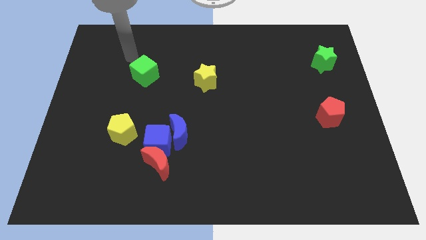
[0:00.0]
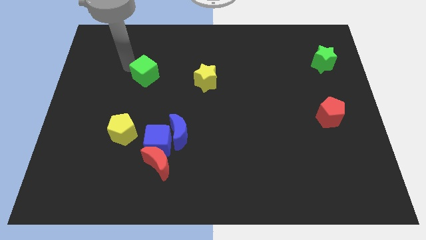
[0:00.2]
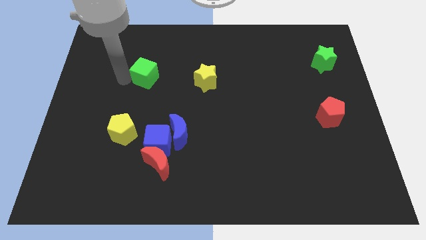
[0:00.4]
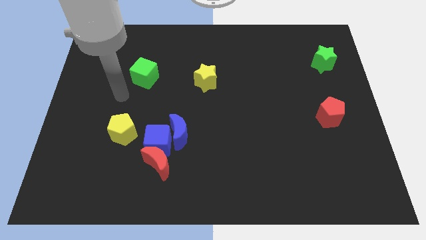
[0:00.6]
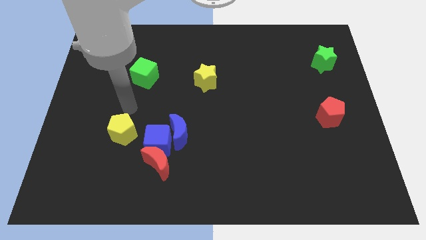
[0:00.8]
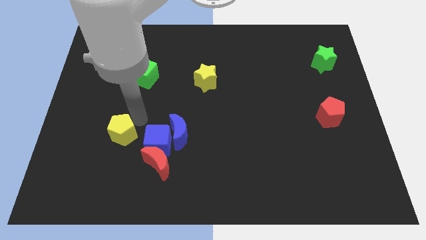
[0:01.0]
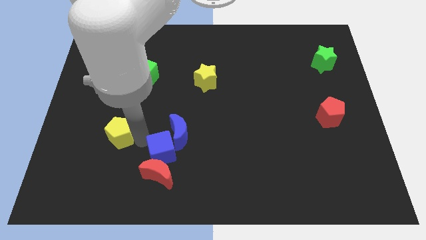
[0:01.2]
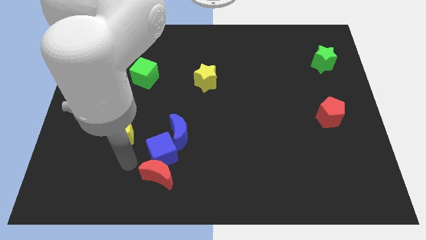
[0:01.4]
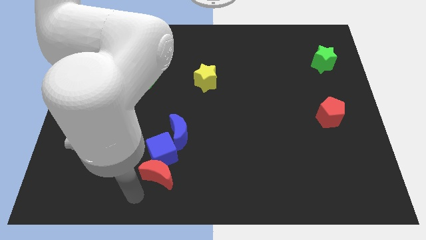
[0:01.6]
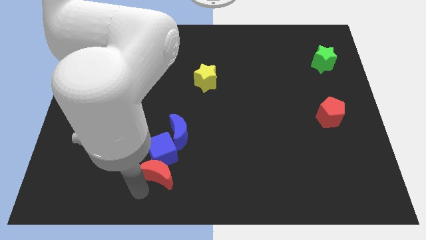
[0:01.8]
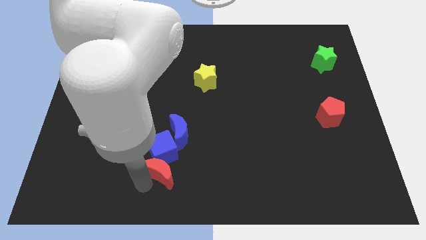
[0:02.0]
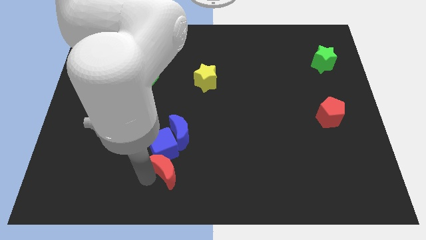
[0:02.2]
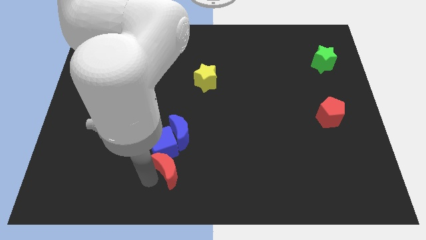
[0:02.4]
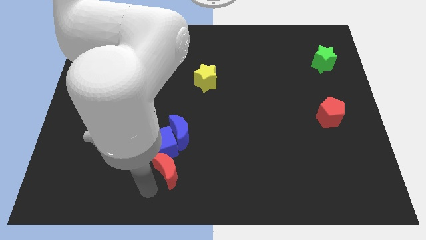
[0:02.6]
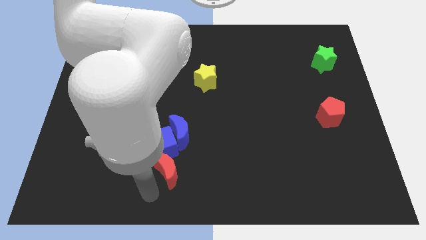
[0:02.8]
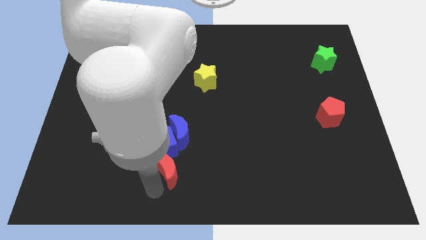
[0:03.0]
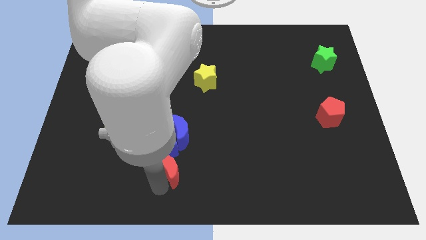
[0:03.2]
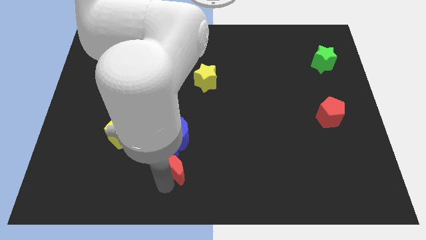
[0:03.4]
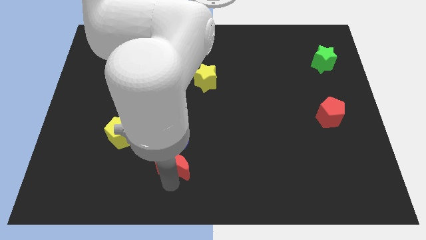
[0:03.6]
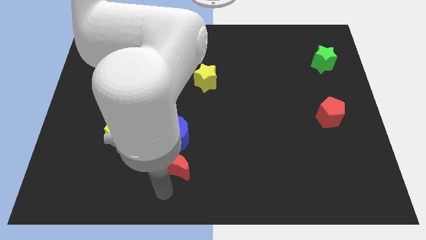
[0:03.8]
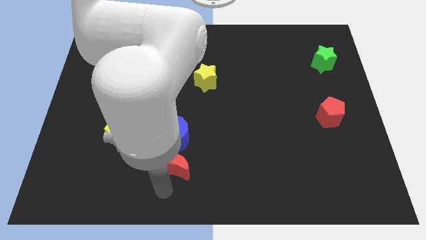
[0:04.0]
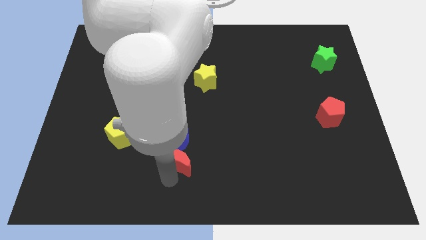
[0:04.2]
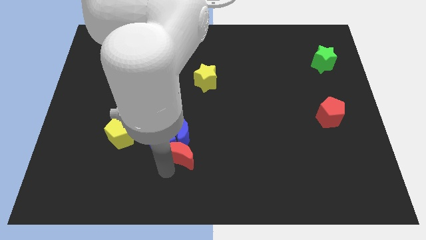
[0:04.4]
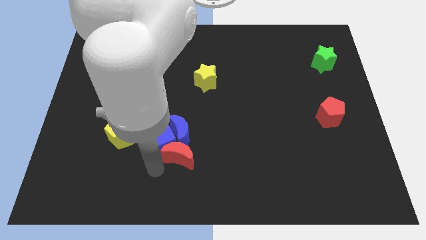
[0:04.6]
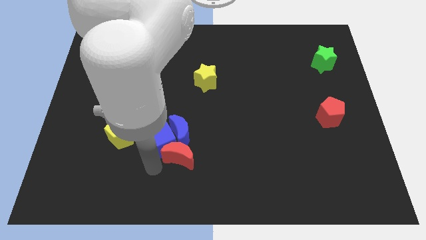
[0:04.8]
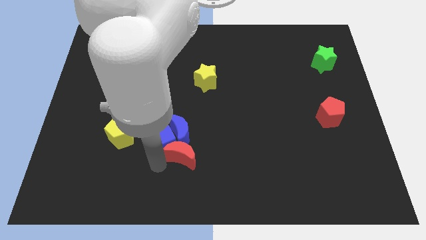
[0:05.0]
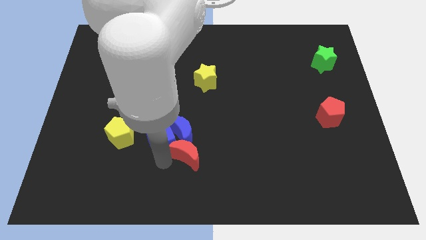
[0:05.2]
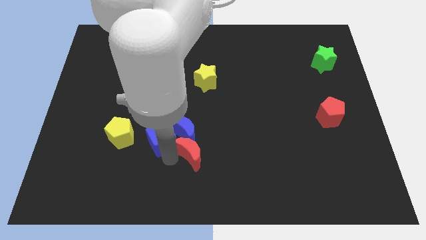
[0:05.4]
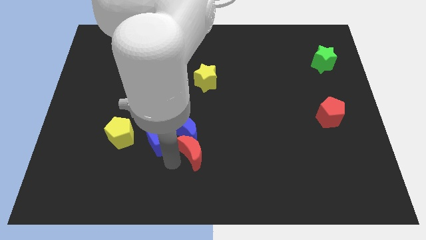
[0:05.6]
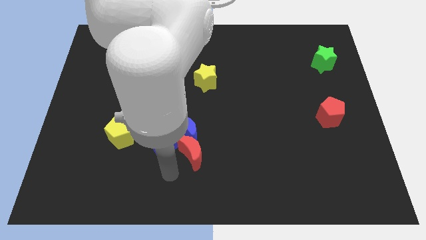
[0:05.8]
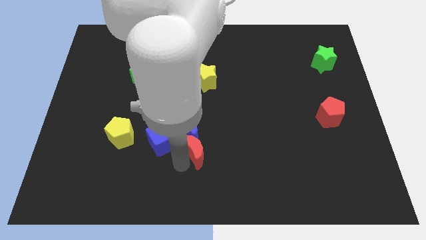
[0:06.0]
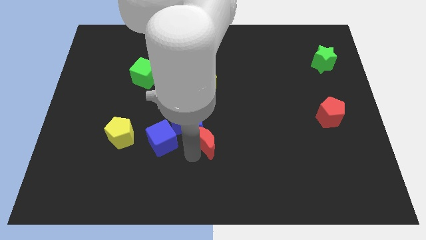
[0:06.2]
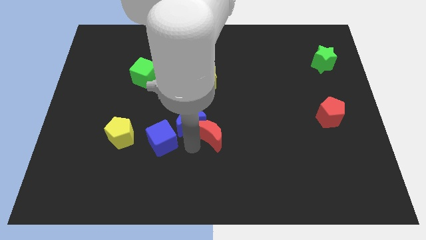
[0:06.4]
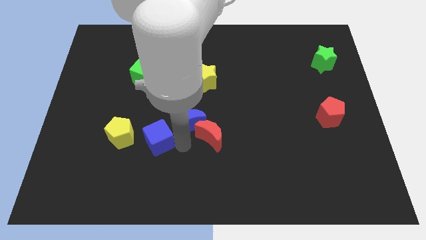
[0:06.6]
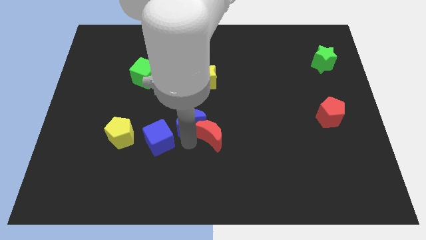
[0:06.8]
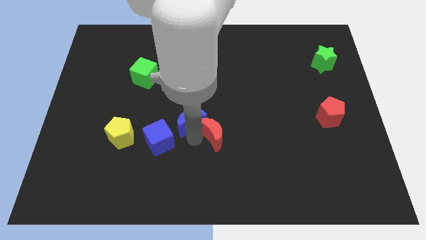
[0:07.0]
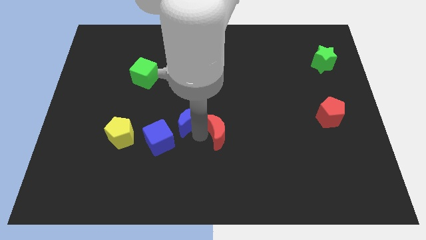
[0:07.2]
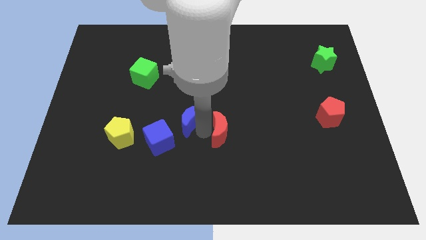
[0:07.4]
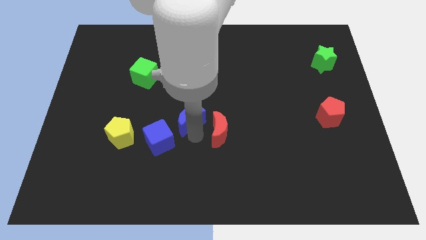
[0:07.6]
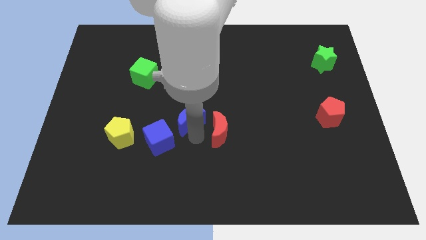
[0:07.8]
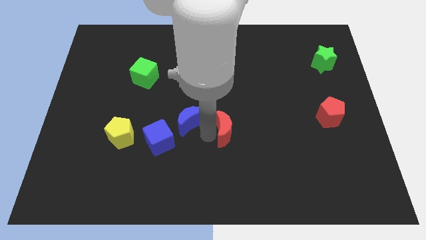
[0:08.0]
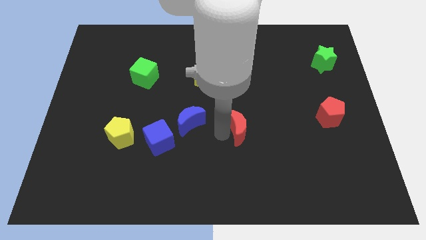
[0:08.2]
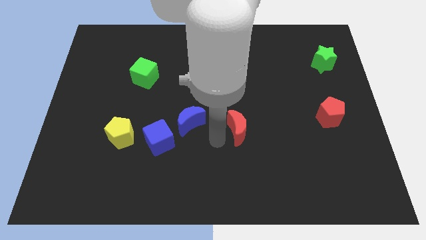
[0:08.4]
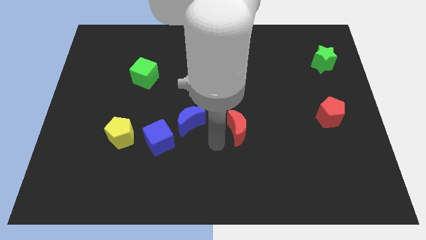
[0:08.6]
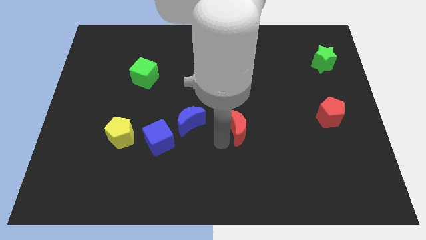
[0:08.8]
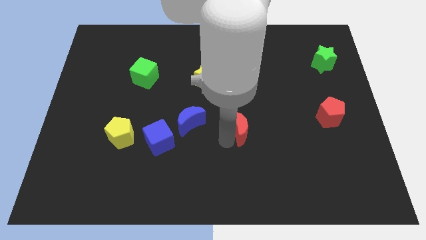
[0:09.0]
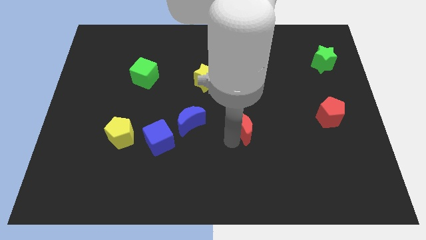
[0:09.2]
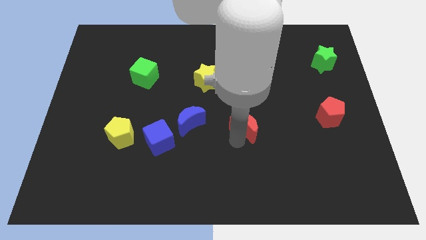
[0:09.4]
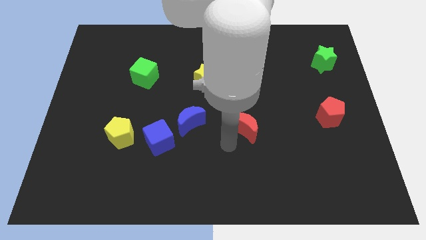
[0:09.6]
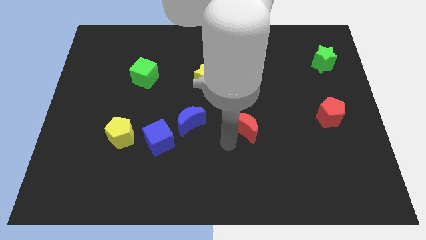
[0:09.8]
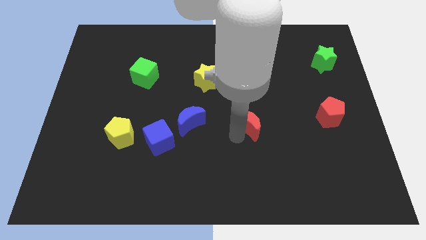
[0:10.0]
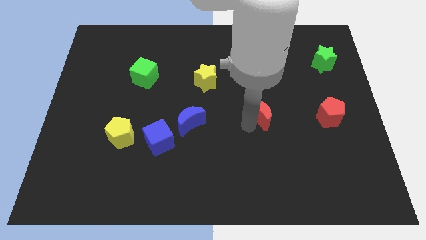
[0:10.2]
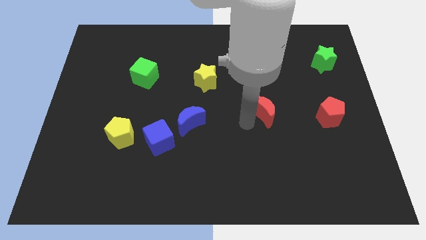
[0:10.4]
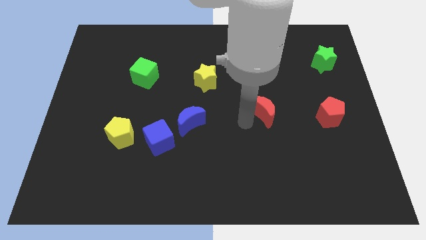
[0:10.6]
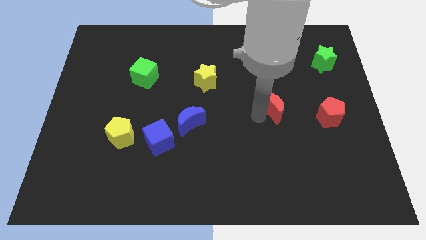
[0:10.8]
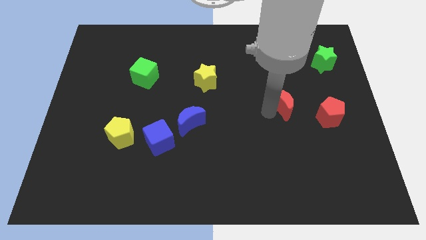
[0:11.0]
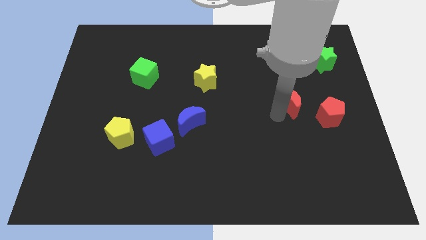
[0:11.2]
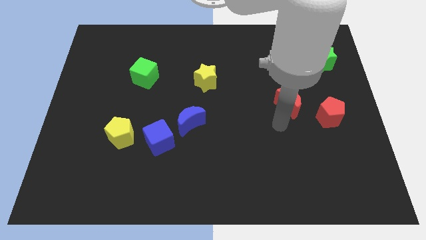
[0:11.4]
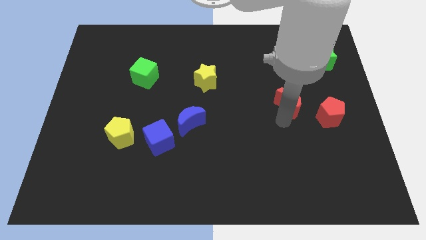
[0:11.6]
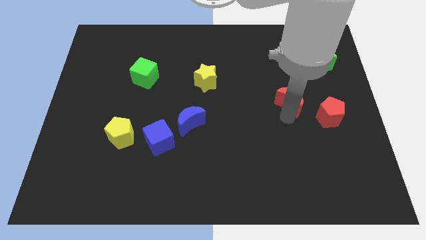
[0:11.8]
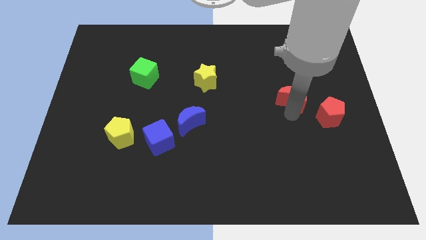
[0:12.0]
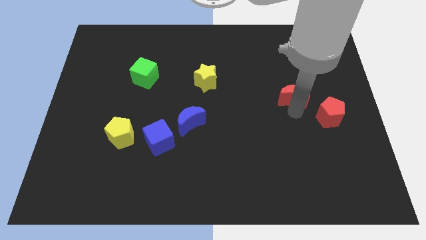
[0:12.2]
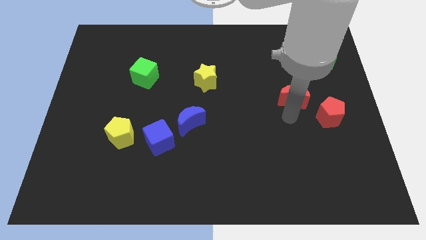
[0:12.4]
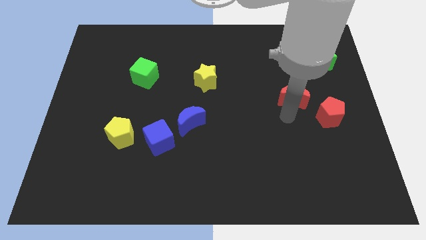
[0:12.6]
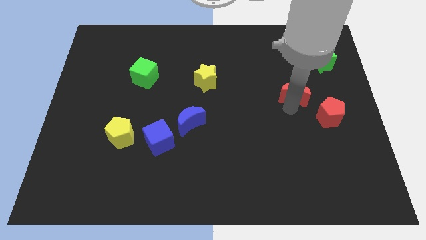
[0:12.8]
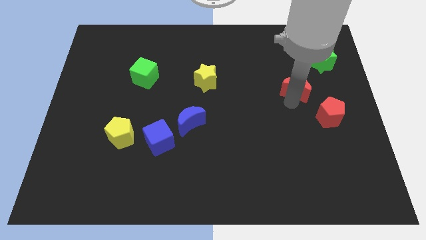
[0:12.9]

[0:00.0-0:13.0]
push the red moon to the bottom left of the green star
